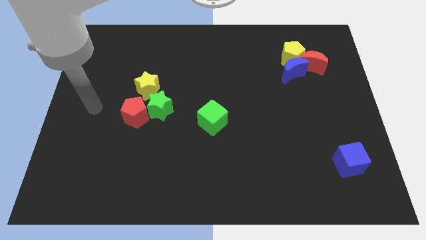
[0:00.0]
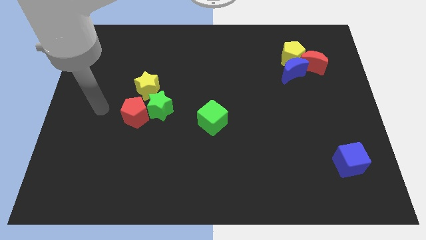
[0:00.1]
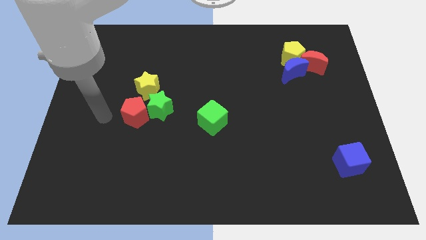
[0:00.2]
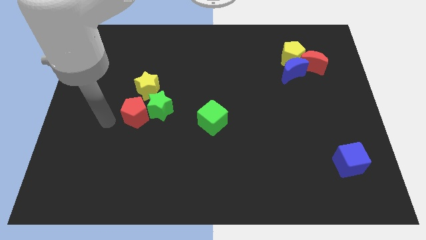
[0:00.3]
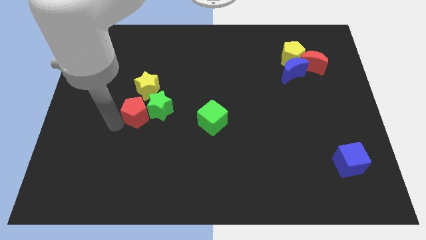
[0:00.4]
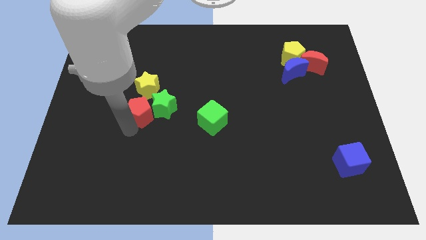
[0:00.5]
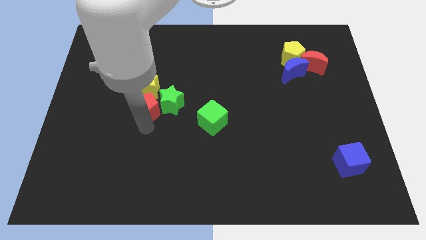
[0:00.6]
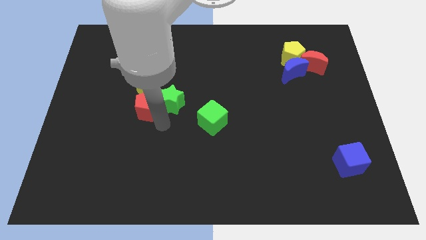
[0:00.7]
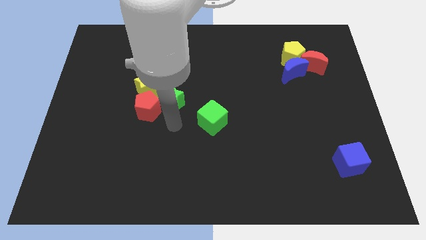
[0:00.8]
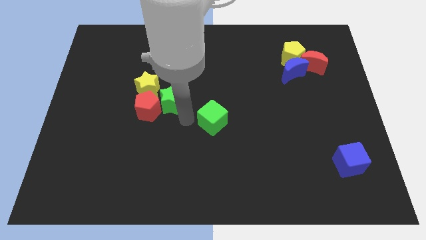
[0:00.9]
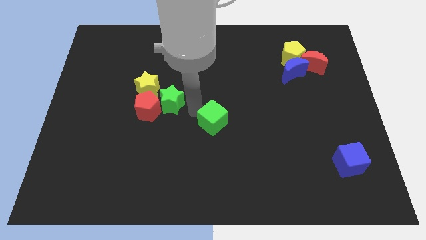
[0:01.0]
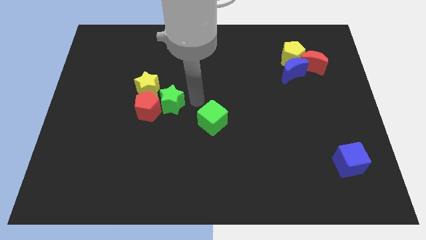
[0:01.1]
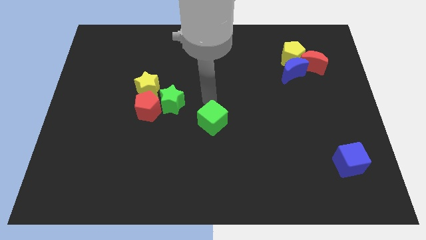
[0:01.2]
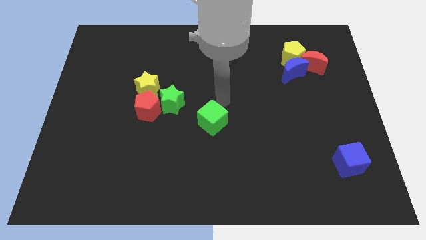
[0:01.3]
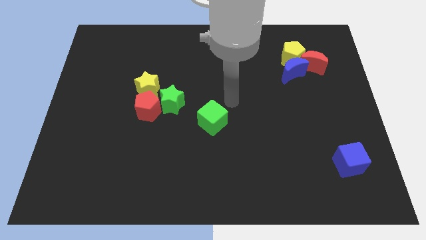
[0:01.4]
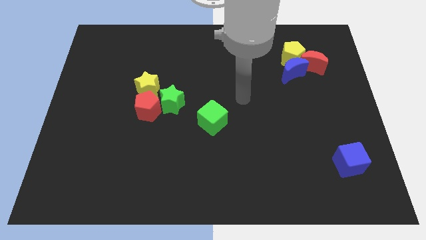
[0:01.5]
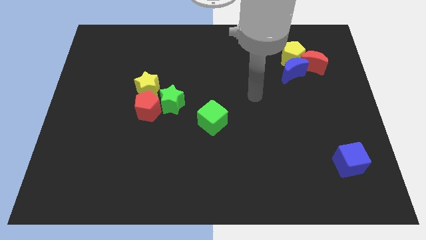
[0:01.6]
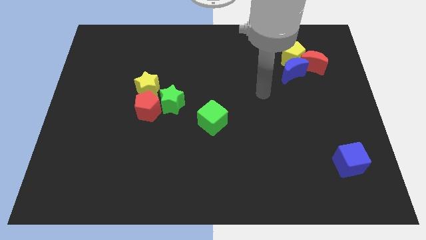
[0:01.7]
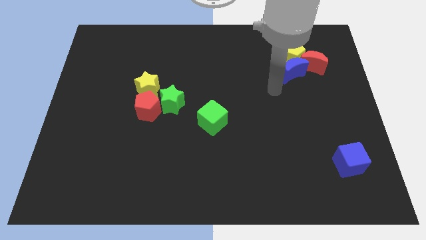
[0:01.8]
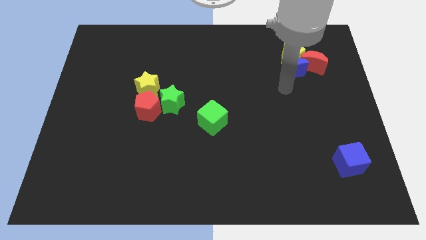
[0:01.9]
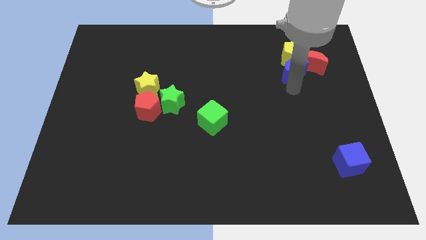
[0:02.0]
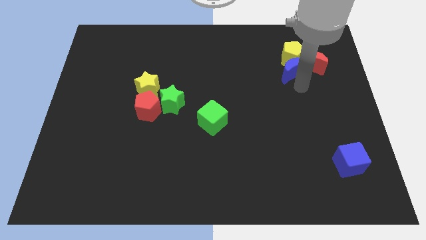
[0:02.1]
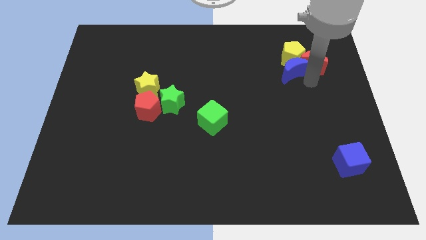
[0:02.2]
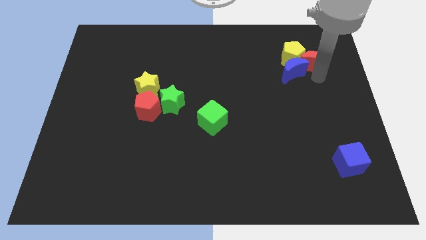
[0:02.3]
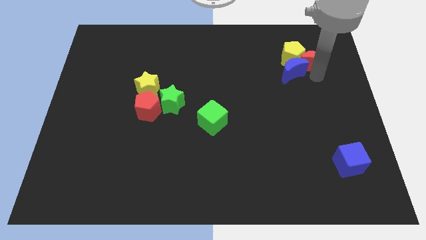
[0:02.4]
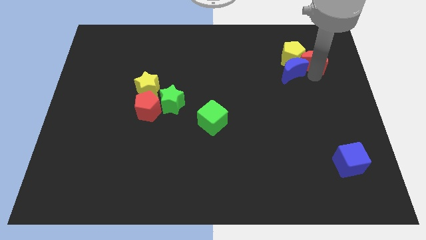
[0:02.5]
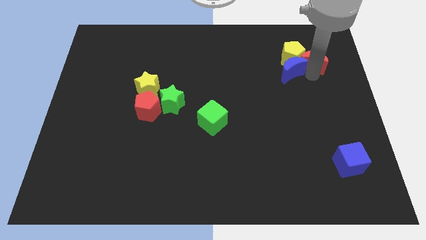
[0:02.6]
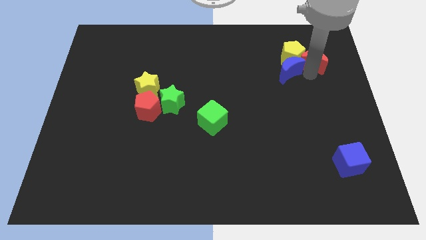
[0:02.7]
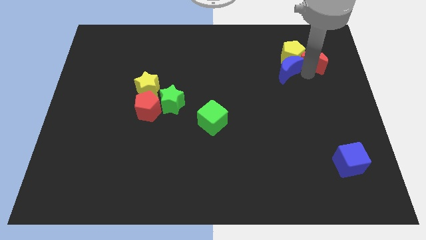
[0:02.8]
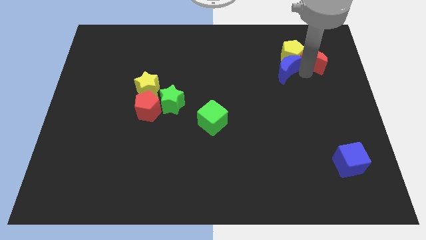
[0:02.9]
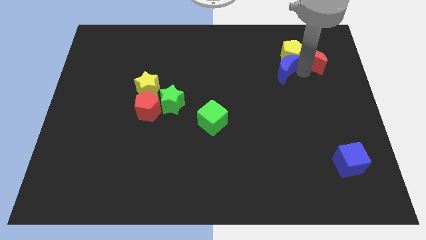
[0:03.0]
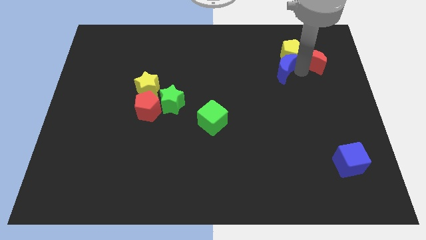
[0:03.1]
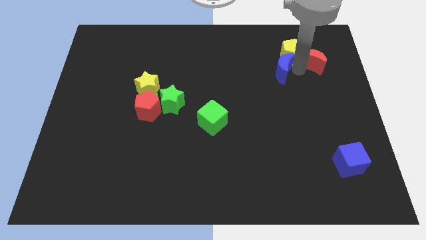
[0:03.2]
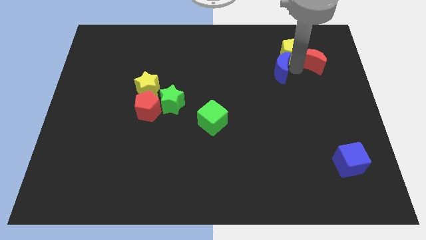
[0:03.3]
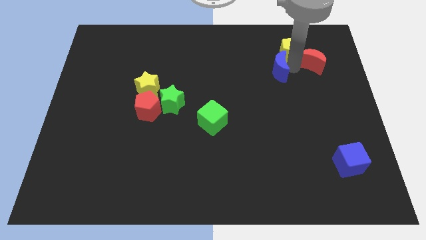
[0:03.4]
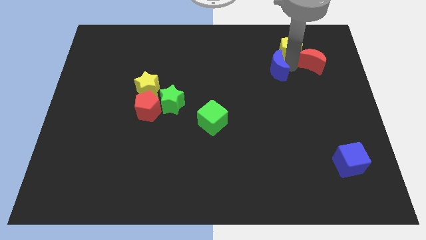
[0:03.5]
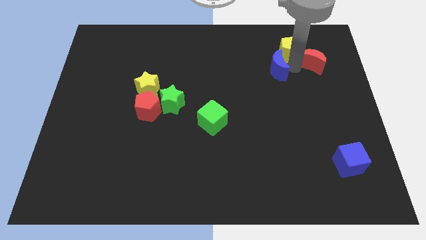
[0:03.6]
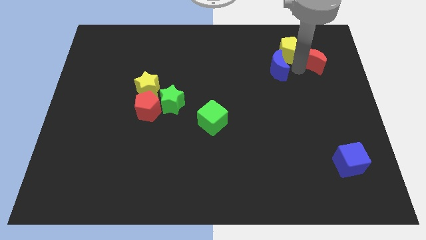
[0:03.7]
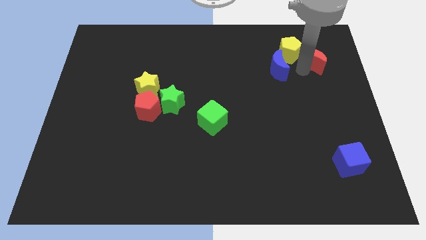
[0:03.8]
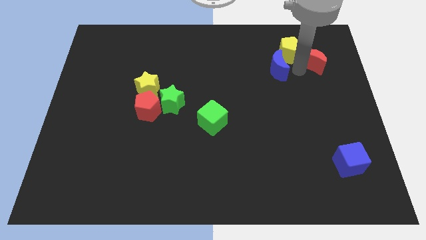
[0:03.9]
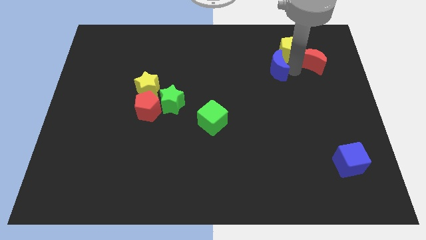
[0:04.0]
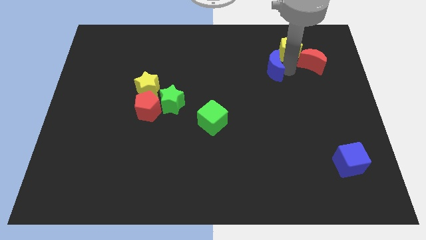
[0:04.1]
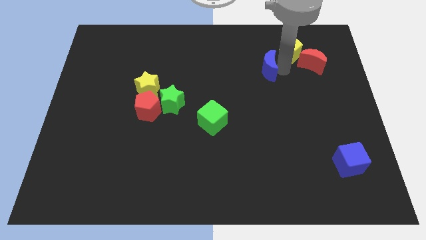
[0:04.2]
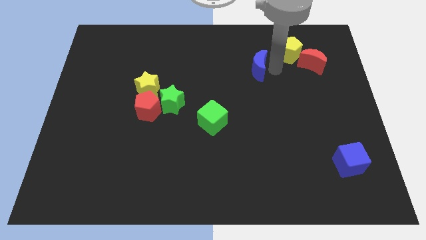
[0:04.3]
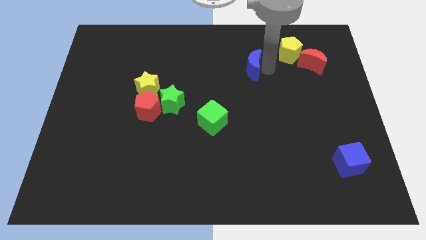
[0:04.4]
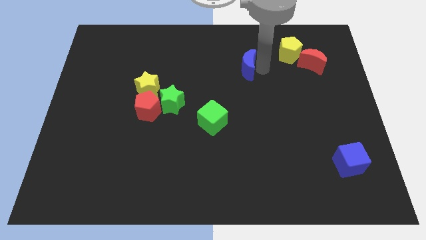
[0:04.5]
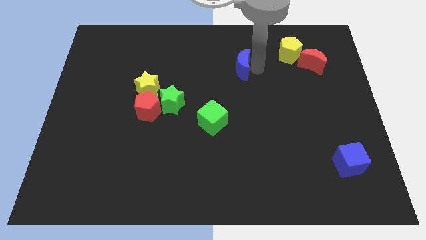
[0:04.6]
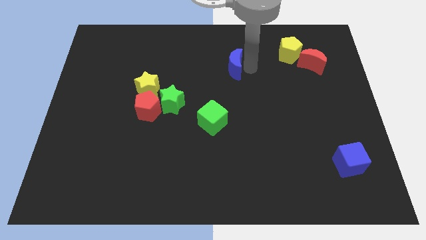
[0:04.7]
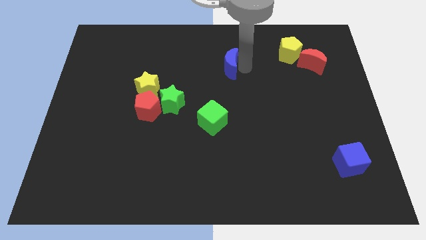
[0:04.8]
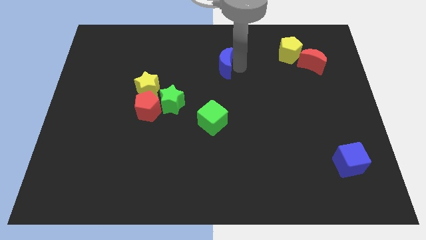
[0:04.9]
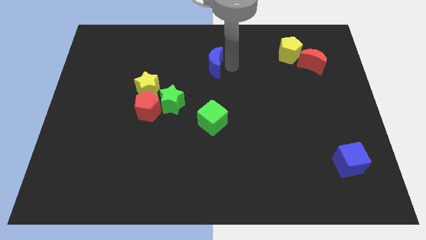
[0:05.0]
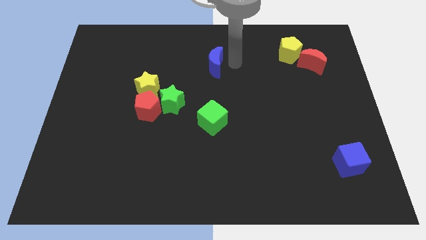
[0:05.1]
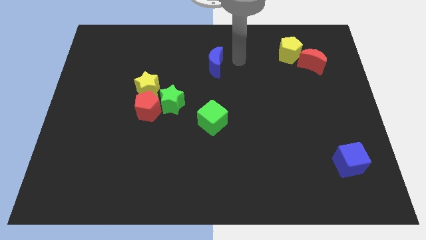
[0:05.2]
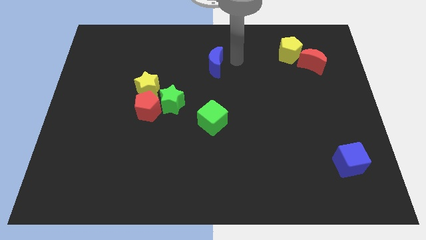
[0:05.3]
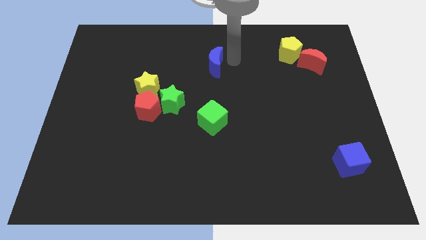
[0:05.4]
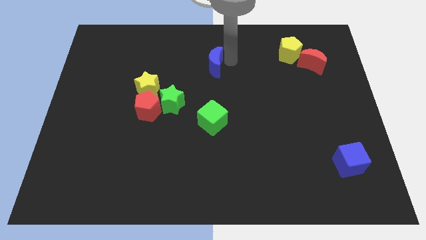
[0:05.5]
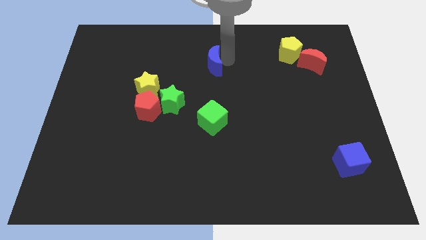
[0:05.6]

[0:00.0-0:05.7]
move the blue moon left

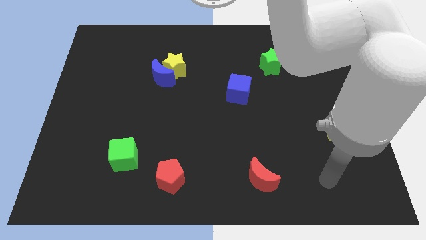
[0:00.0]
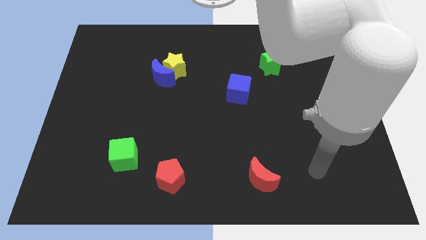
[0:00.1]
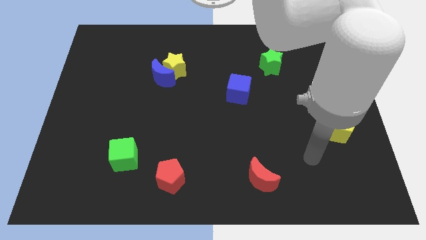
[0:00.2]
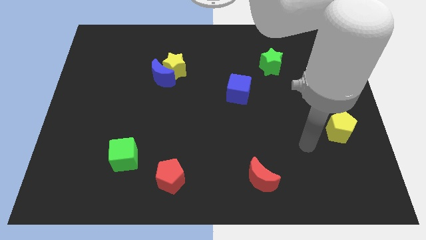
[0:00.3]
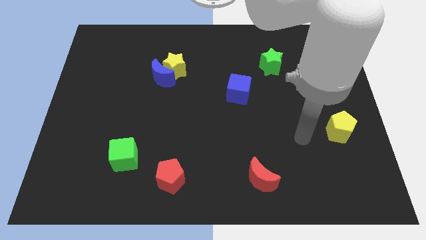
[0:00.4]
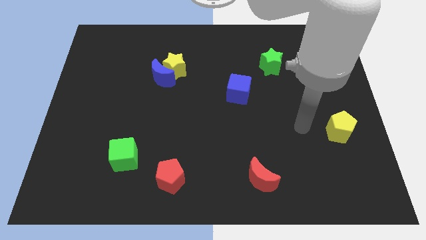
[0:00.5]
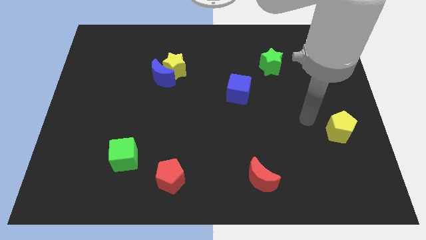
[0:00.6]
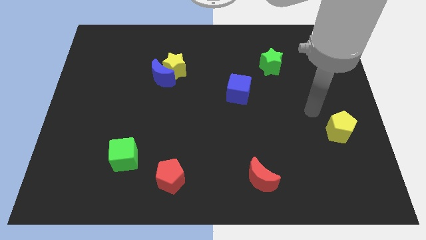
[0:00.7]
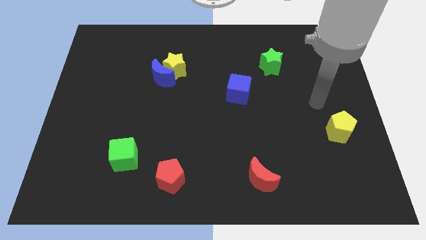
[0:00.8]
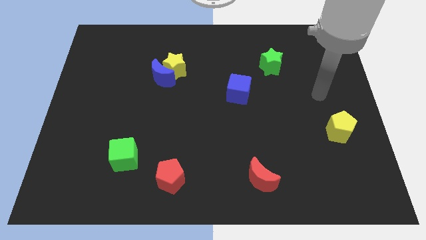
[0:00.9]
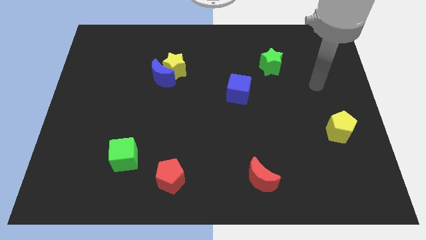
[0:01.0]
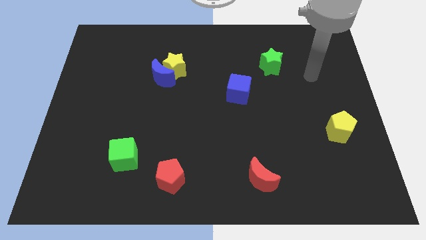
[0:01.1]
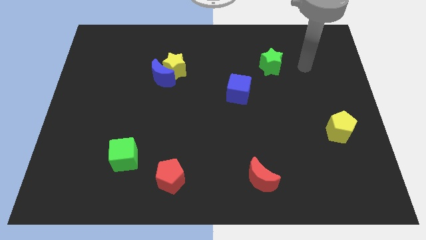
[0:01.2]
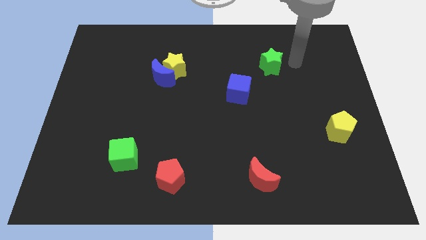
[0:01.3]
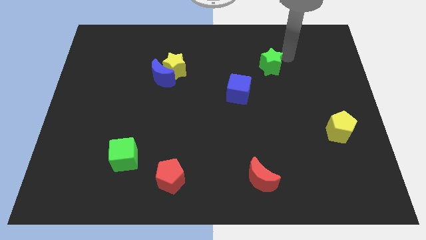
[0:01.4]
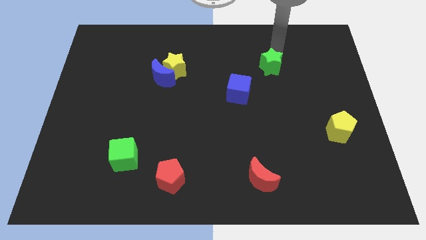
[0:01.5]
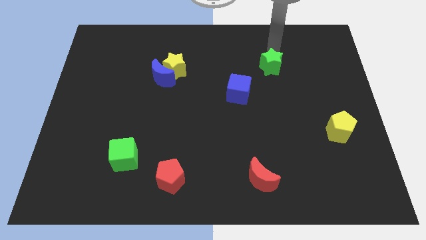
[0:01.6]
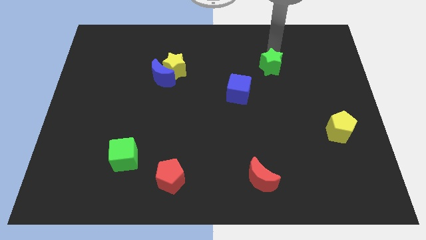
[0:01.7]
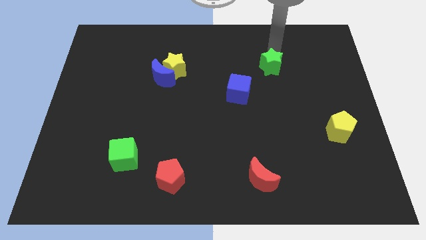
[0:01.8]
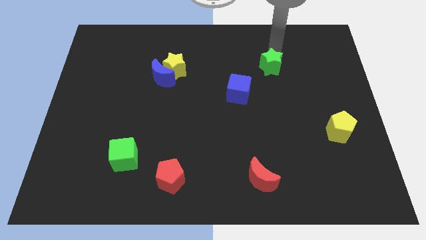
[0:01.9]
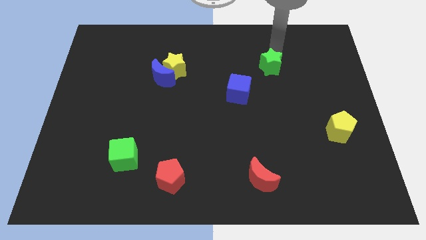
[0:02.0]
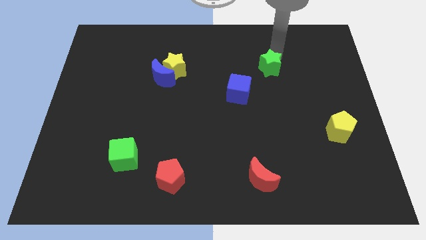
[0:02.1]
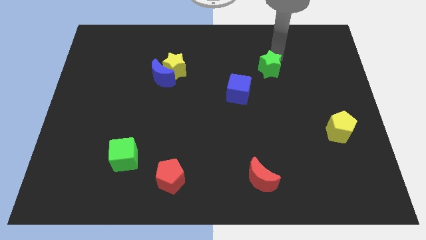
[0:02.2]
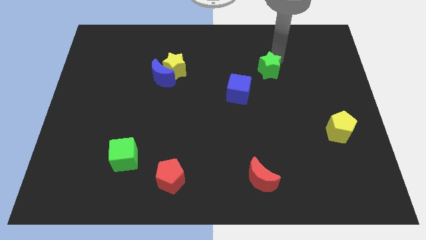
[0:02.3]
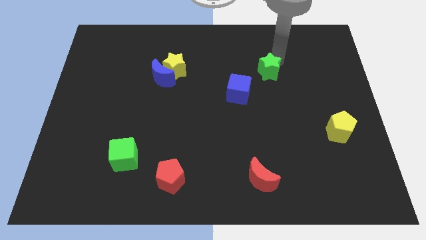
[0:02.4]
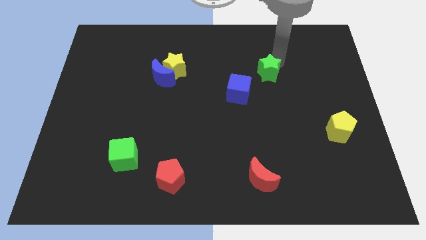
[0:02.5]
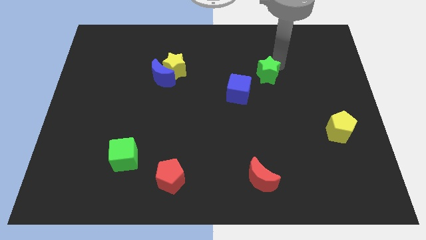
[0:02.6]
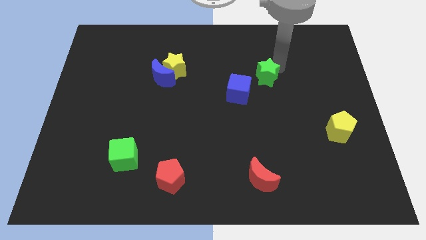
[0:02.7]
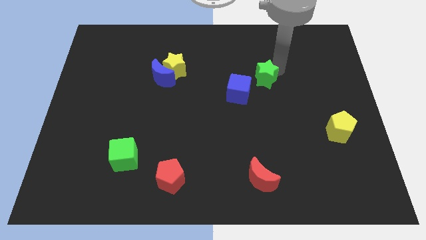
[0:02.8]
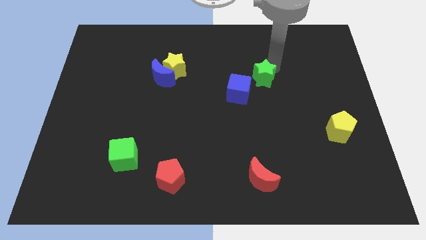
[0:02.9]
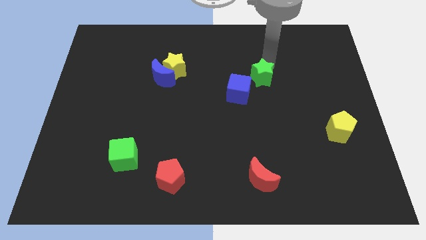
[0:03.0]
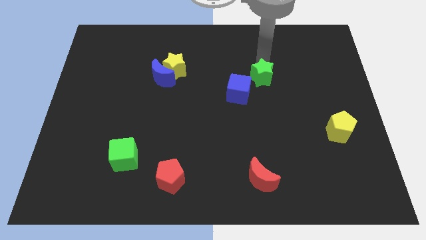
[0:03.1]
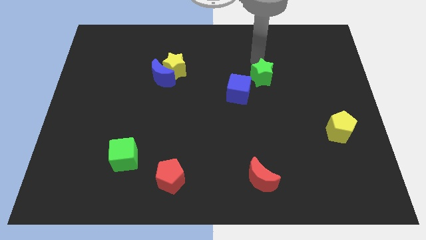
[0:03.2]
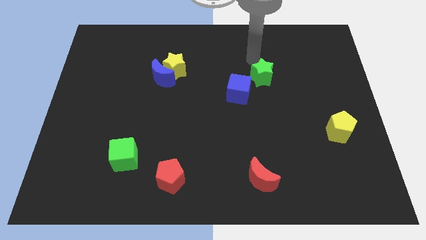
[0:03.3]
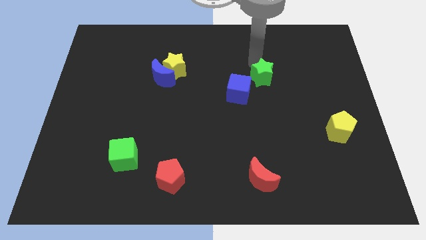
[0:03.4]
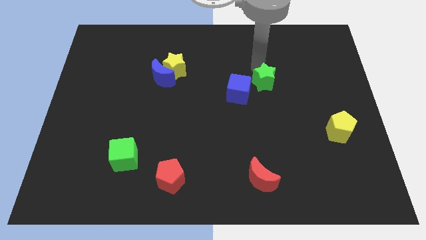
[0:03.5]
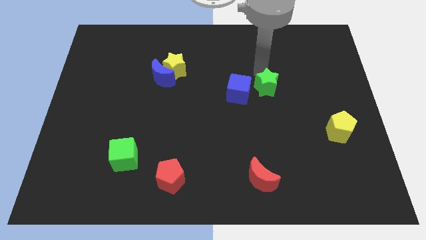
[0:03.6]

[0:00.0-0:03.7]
move the green star slightly downwards
